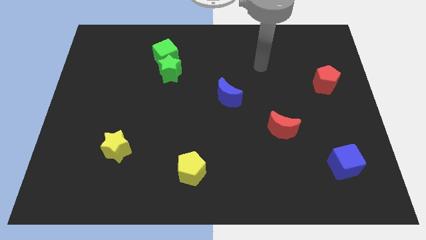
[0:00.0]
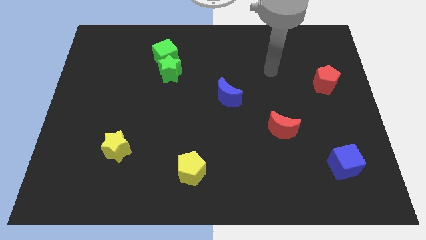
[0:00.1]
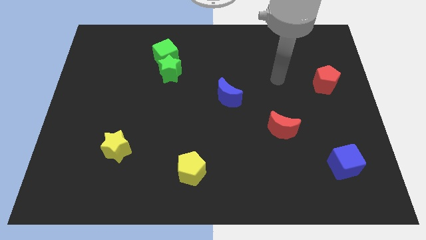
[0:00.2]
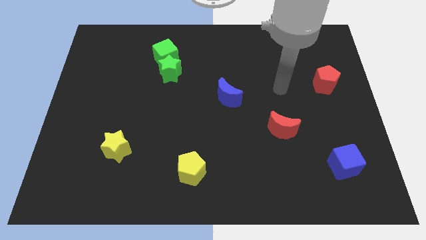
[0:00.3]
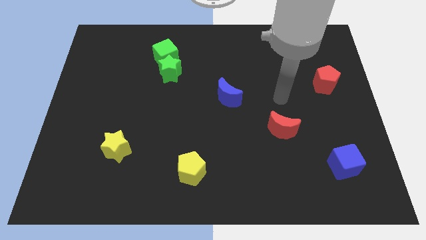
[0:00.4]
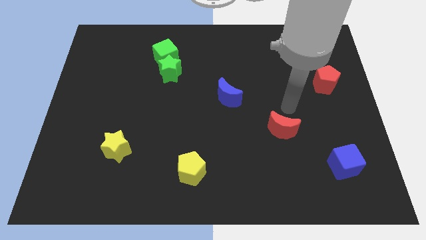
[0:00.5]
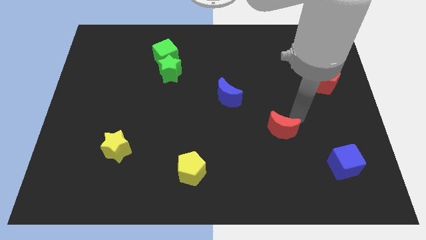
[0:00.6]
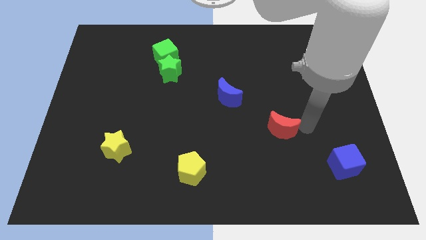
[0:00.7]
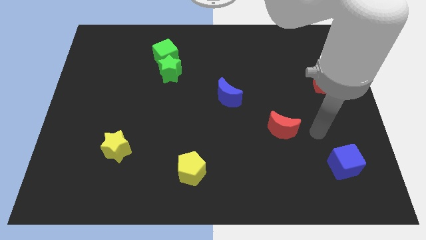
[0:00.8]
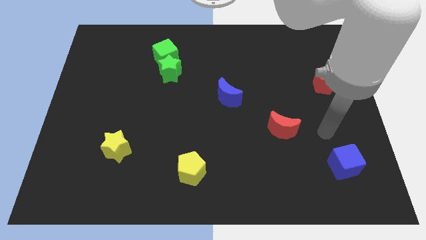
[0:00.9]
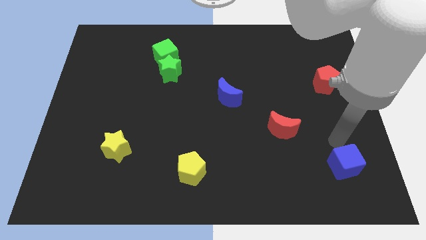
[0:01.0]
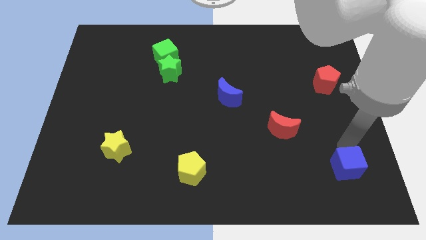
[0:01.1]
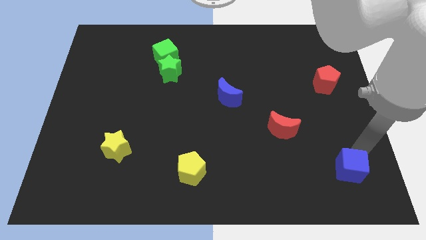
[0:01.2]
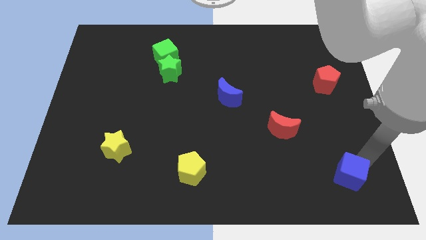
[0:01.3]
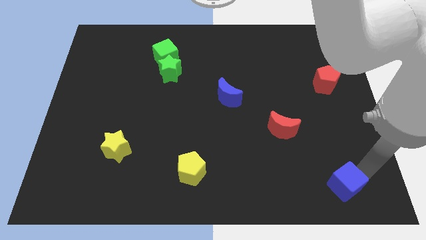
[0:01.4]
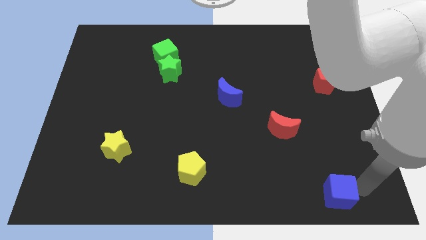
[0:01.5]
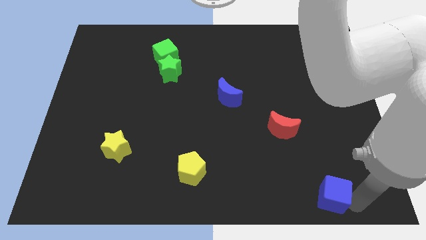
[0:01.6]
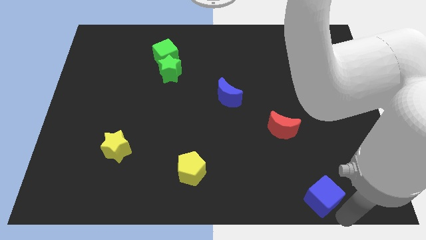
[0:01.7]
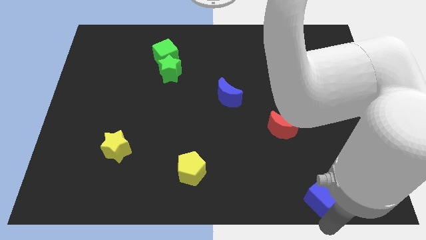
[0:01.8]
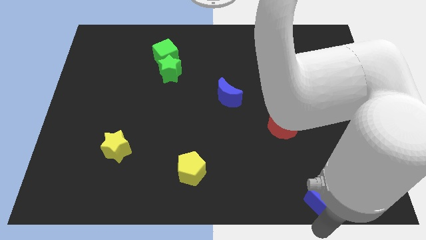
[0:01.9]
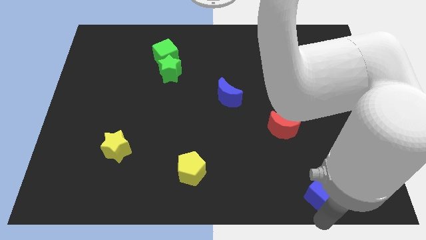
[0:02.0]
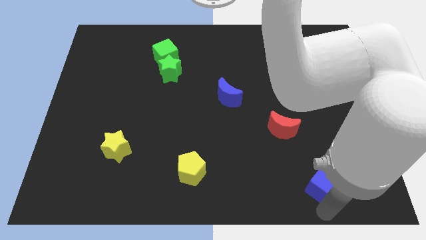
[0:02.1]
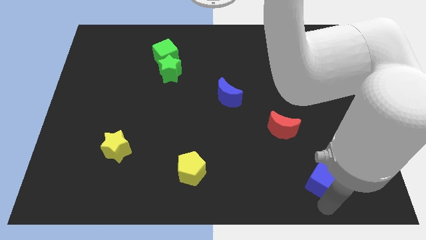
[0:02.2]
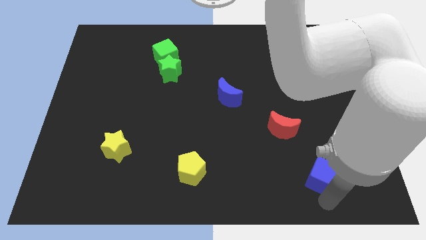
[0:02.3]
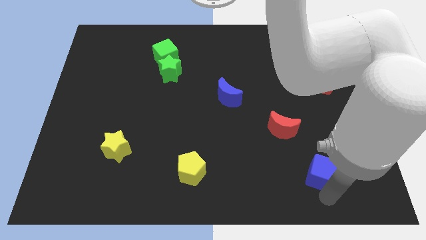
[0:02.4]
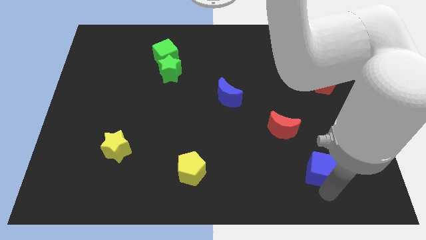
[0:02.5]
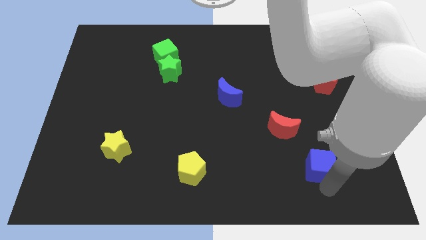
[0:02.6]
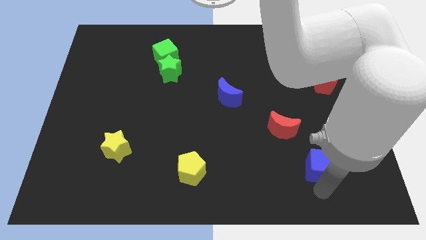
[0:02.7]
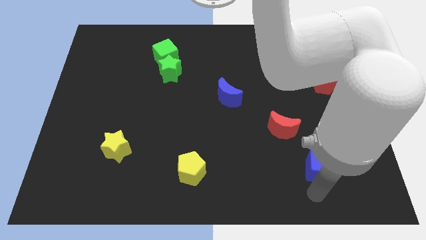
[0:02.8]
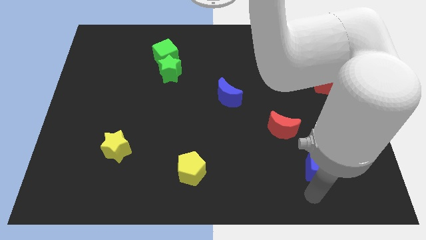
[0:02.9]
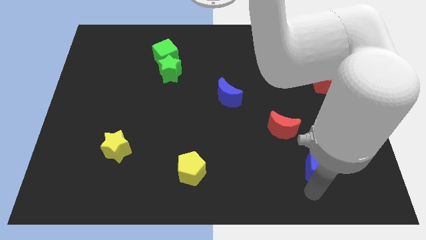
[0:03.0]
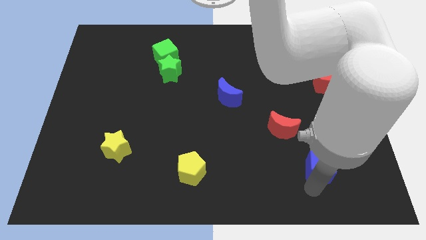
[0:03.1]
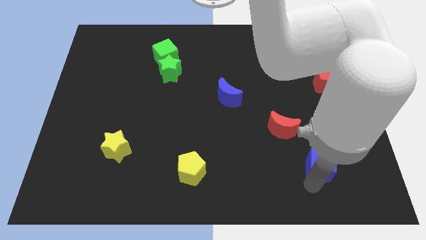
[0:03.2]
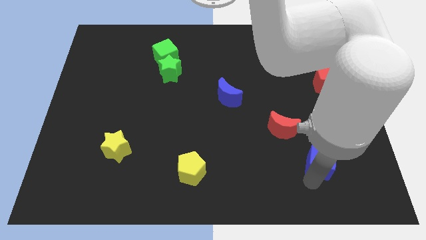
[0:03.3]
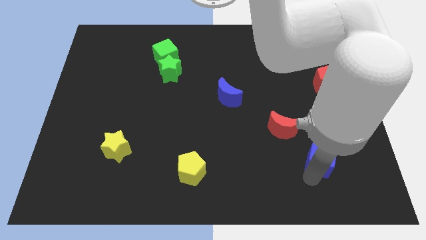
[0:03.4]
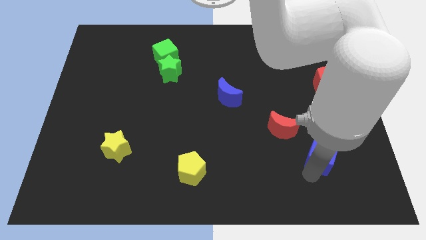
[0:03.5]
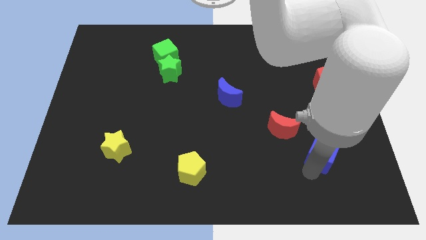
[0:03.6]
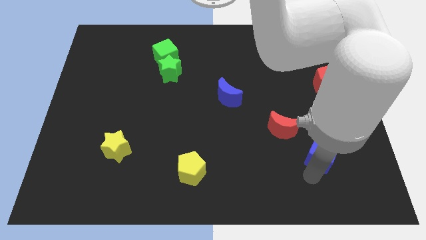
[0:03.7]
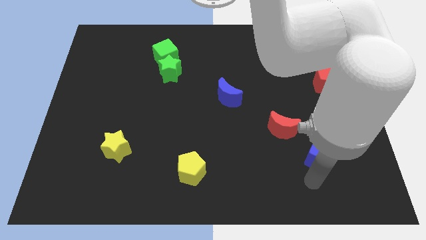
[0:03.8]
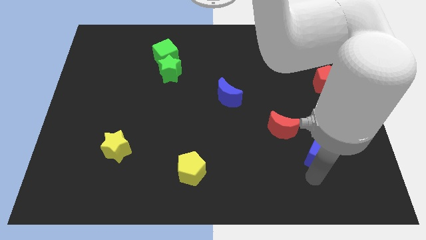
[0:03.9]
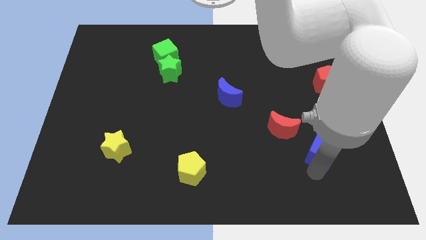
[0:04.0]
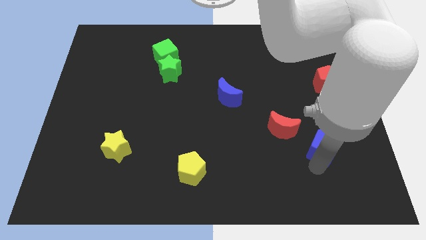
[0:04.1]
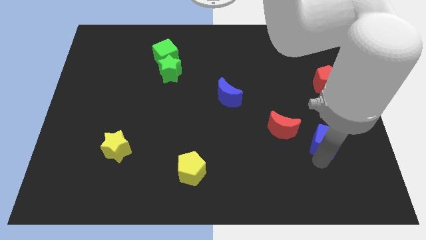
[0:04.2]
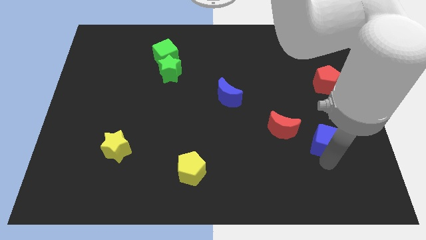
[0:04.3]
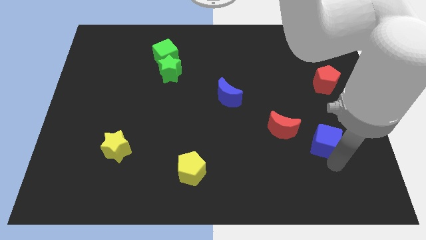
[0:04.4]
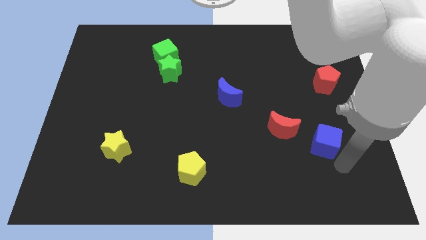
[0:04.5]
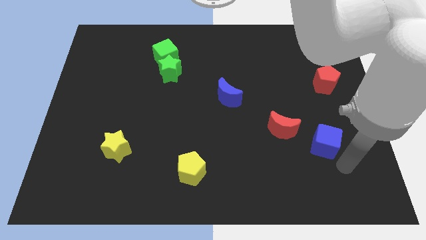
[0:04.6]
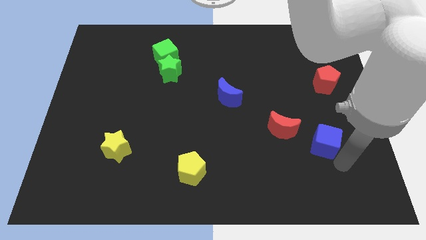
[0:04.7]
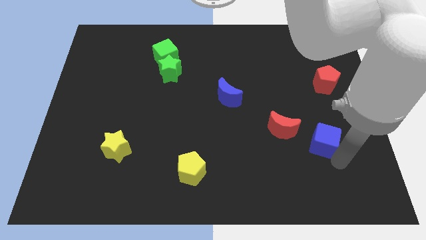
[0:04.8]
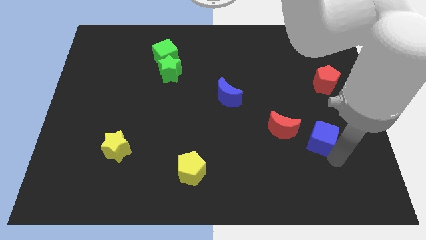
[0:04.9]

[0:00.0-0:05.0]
move the blue cube slightly up and to the left

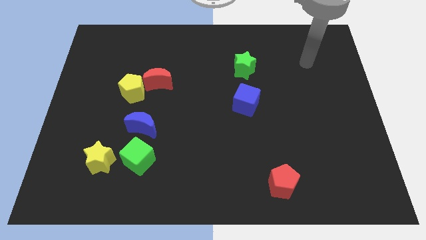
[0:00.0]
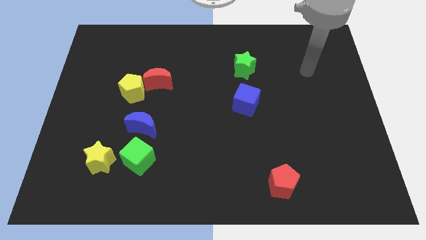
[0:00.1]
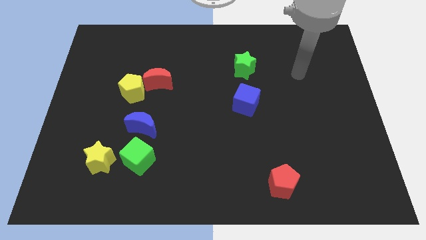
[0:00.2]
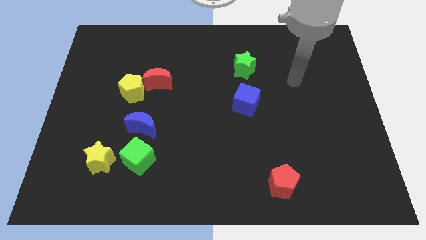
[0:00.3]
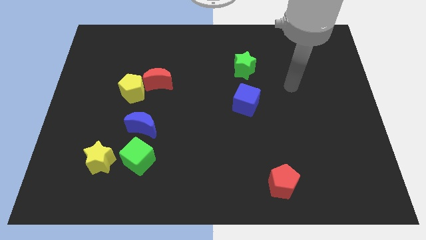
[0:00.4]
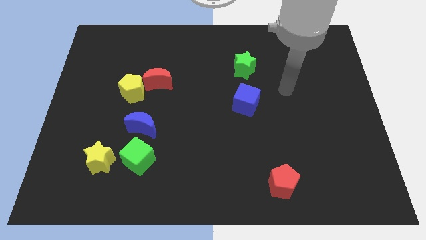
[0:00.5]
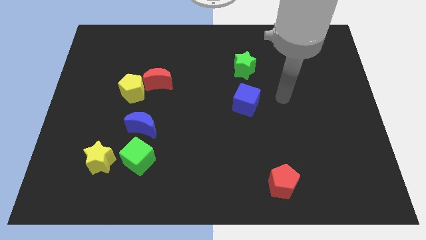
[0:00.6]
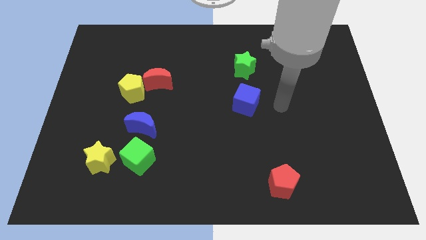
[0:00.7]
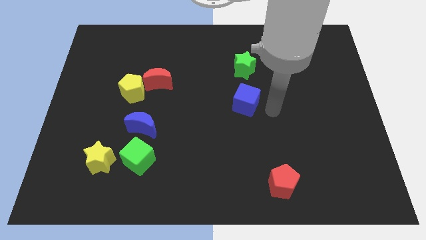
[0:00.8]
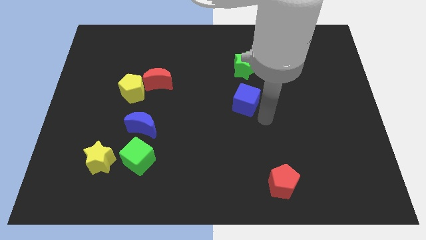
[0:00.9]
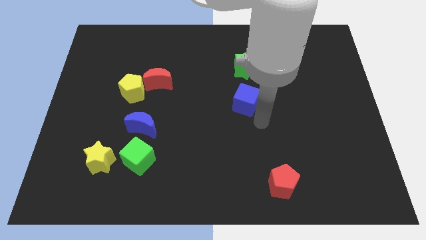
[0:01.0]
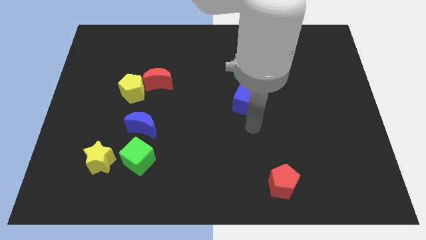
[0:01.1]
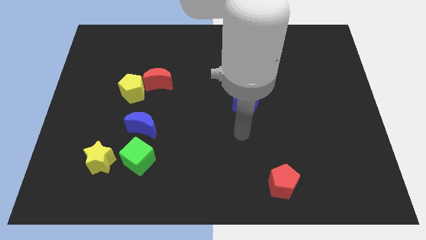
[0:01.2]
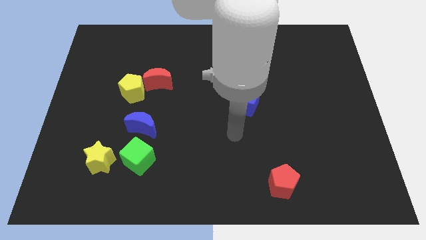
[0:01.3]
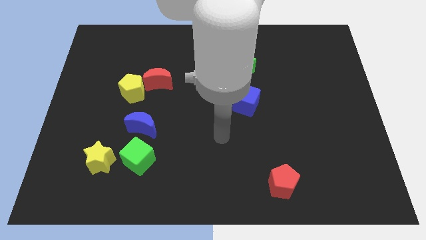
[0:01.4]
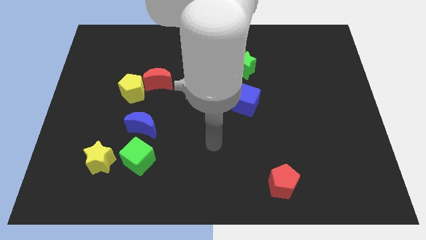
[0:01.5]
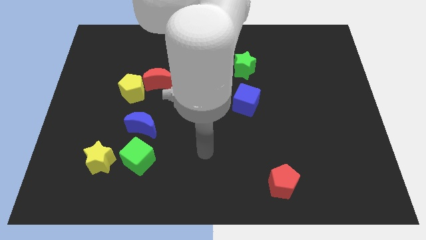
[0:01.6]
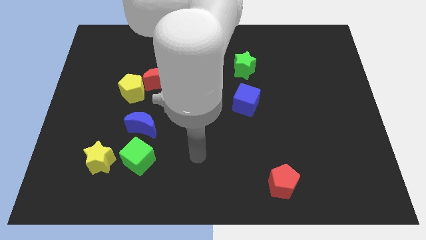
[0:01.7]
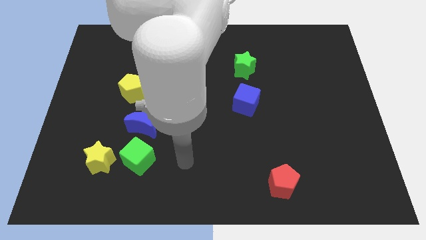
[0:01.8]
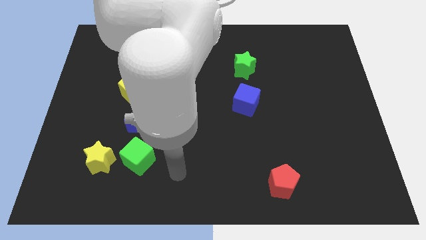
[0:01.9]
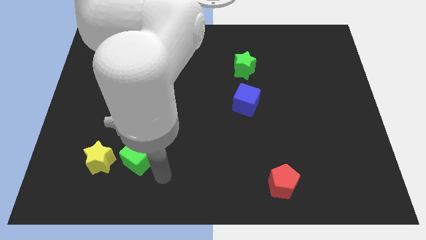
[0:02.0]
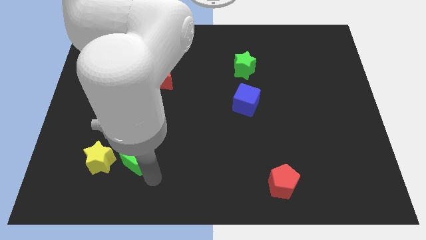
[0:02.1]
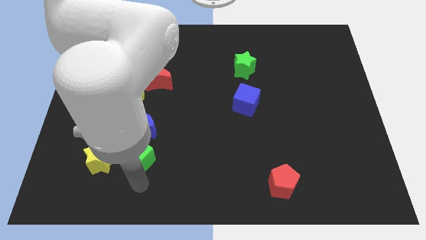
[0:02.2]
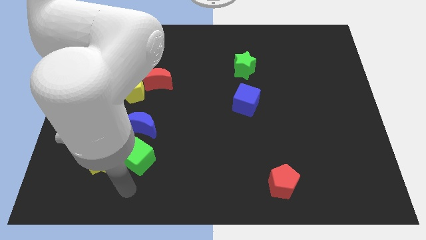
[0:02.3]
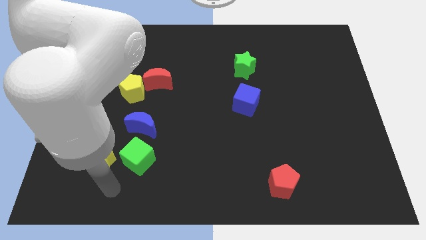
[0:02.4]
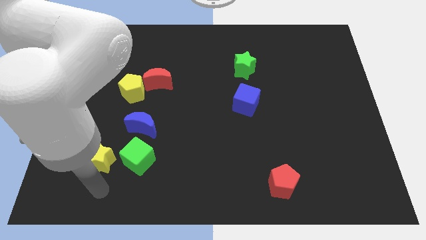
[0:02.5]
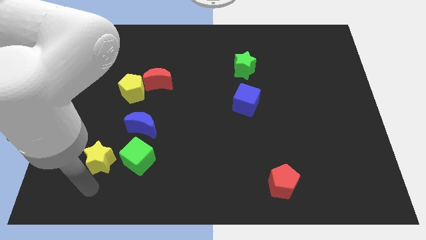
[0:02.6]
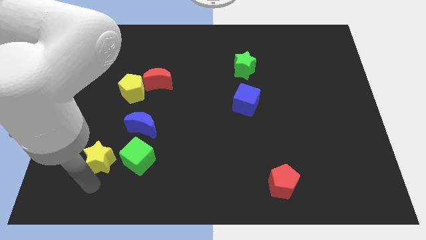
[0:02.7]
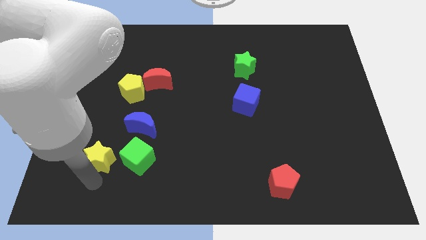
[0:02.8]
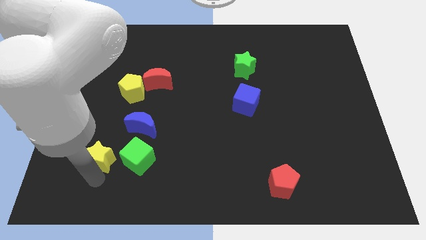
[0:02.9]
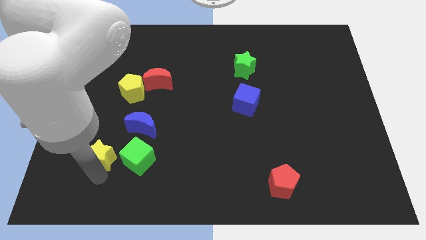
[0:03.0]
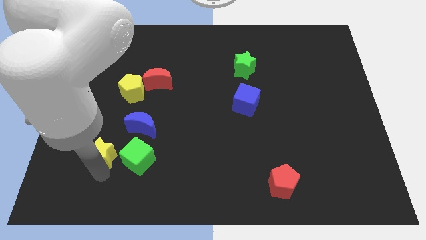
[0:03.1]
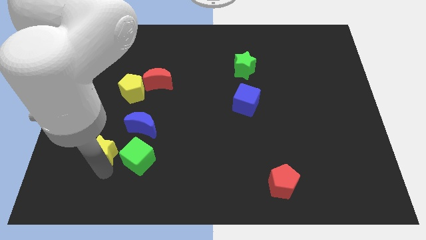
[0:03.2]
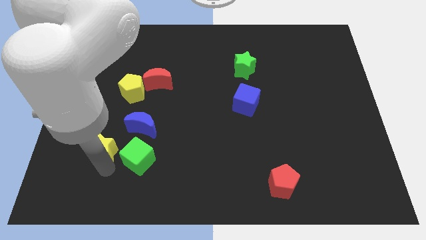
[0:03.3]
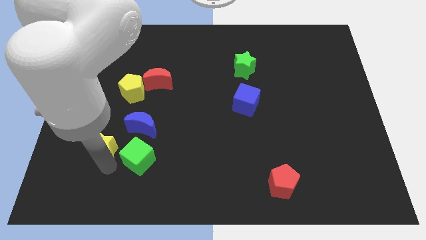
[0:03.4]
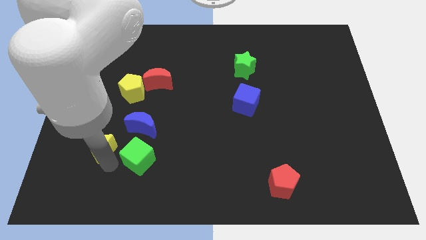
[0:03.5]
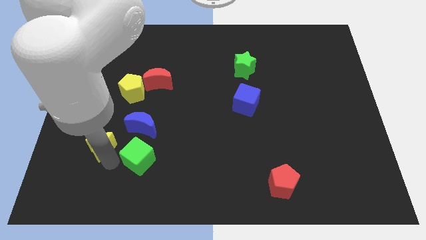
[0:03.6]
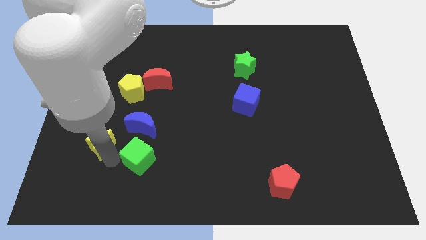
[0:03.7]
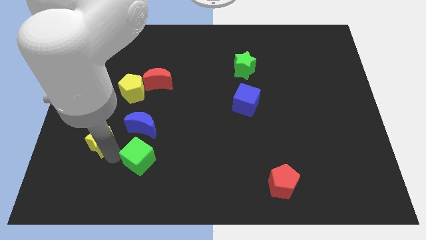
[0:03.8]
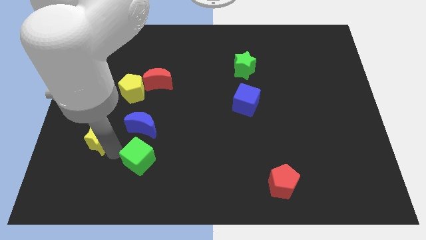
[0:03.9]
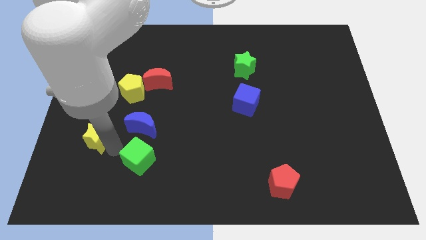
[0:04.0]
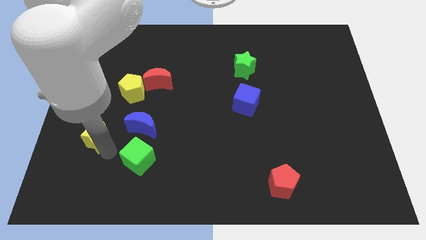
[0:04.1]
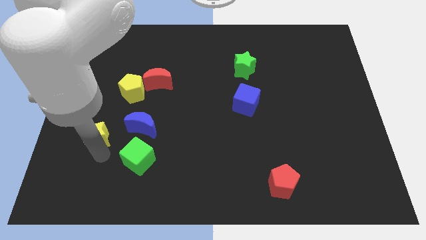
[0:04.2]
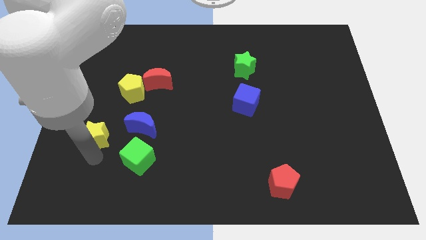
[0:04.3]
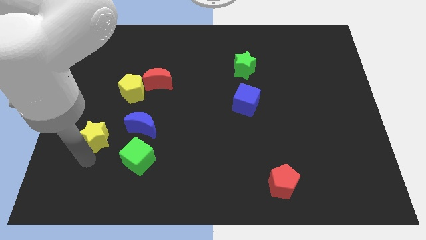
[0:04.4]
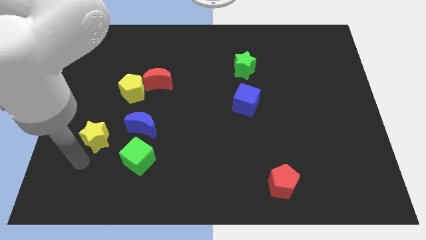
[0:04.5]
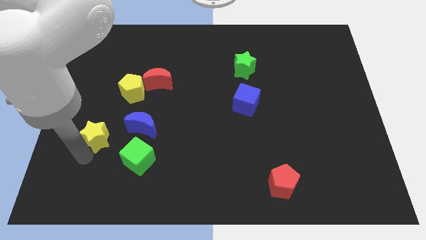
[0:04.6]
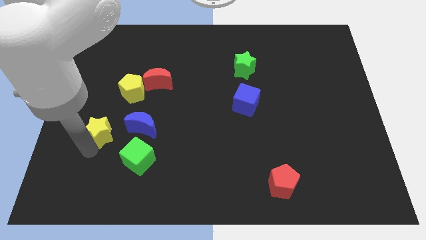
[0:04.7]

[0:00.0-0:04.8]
slide the yellow star upwards somewhat
